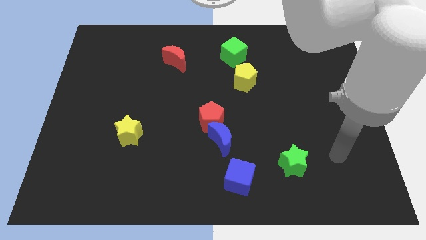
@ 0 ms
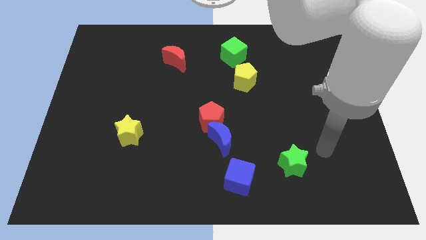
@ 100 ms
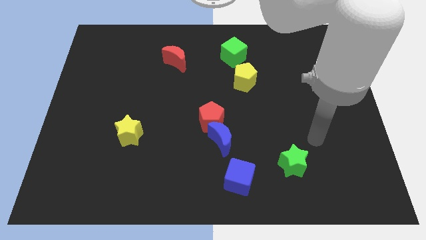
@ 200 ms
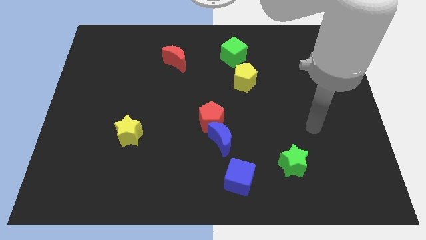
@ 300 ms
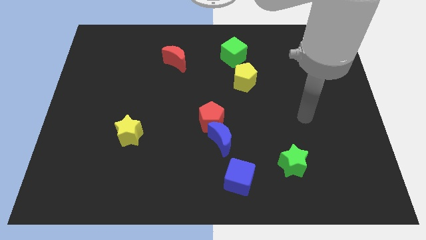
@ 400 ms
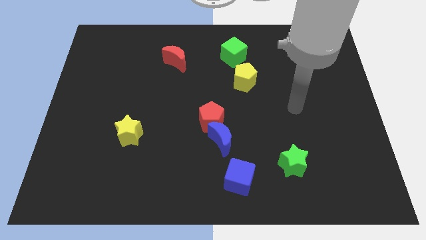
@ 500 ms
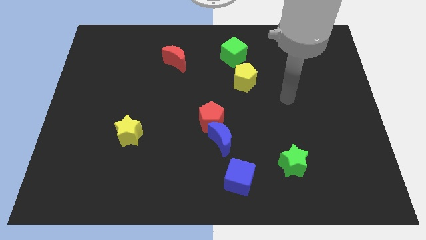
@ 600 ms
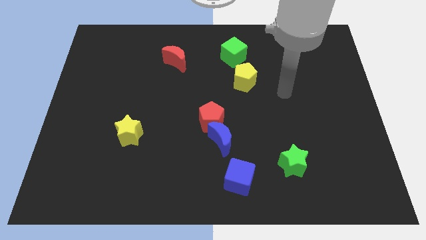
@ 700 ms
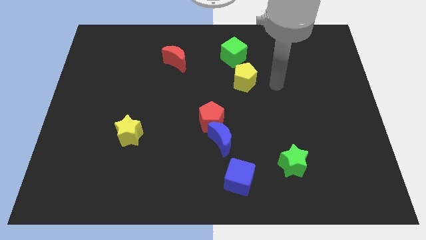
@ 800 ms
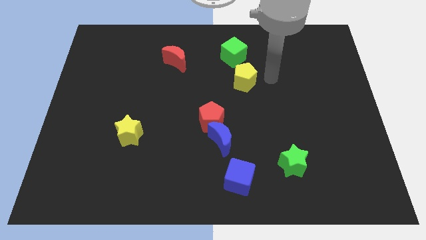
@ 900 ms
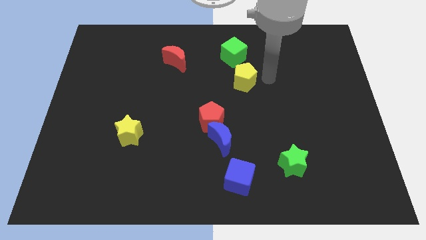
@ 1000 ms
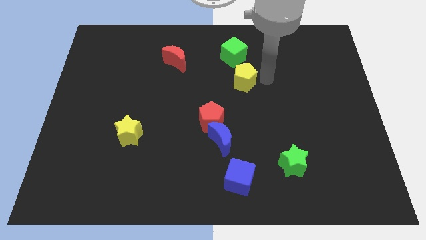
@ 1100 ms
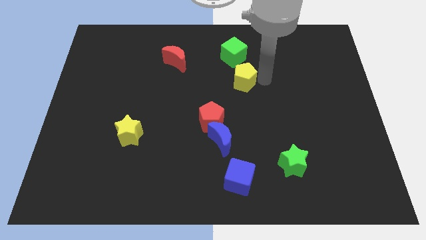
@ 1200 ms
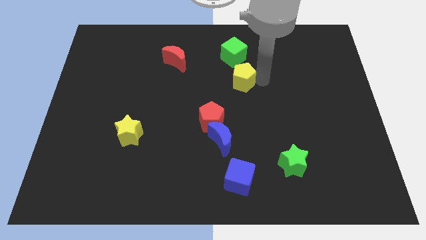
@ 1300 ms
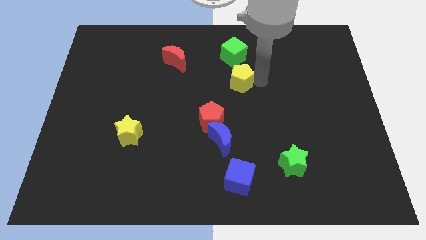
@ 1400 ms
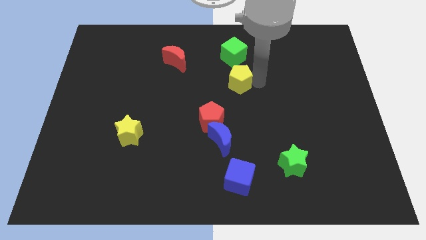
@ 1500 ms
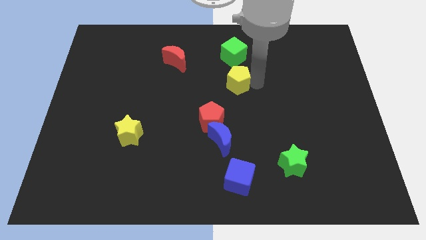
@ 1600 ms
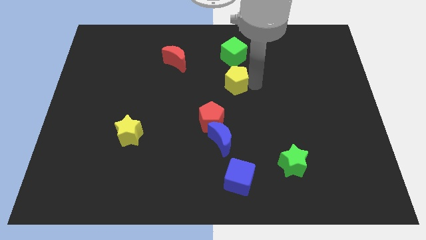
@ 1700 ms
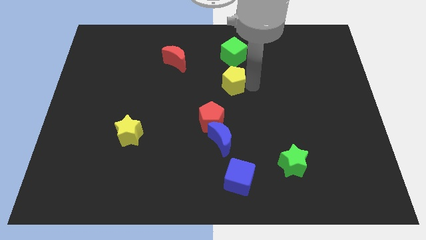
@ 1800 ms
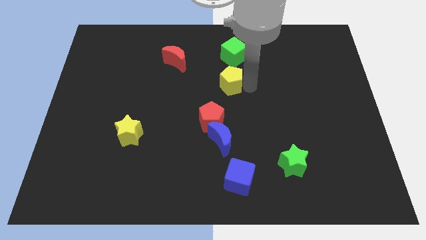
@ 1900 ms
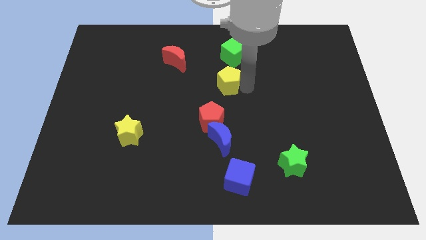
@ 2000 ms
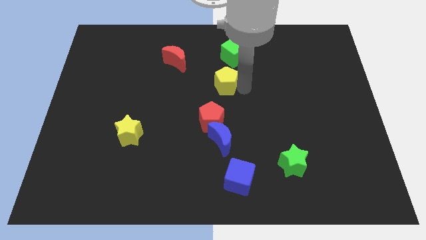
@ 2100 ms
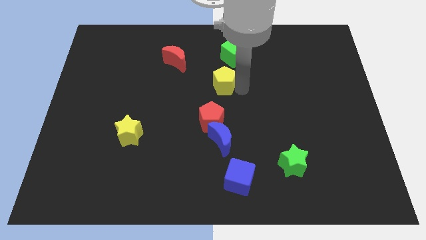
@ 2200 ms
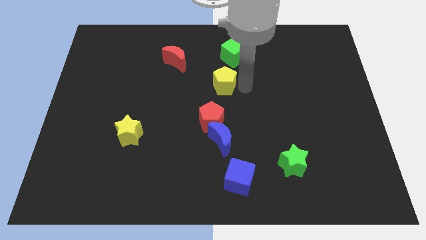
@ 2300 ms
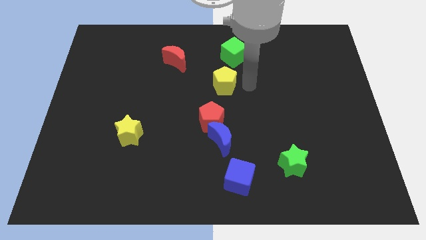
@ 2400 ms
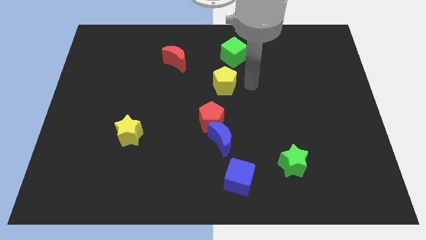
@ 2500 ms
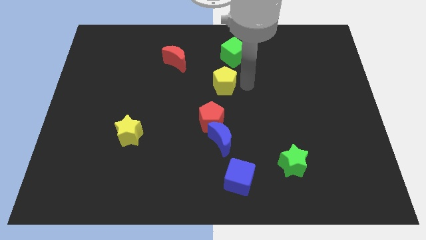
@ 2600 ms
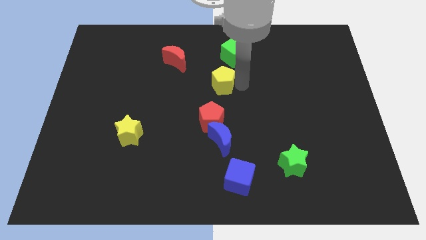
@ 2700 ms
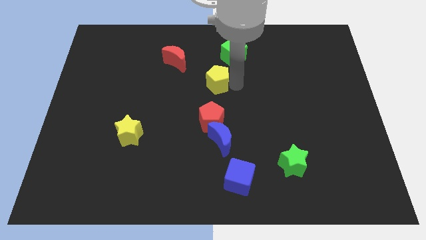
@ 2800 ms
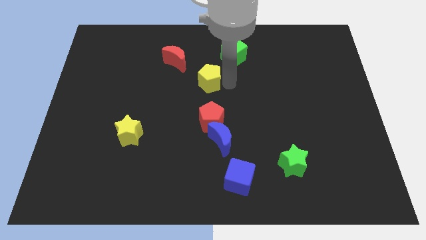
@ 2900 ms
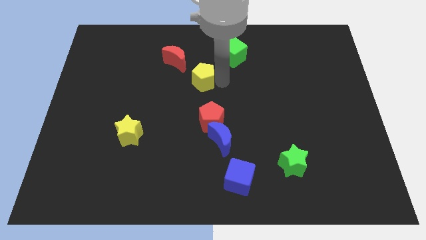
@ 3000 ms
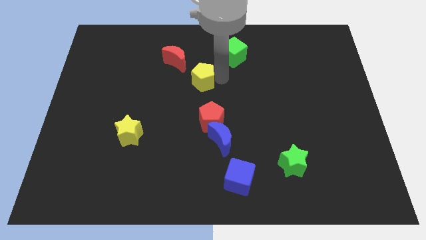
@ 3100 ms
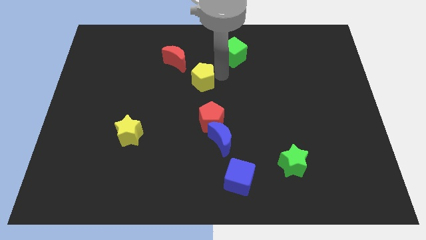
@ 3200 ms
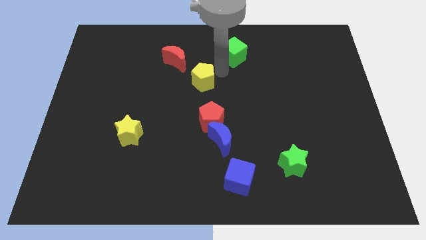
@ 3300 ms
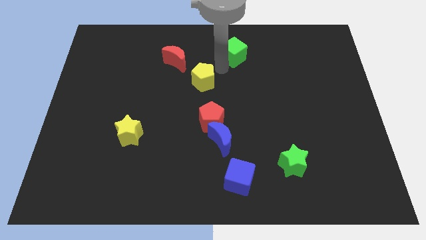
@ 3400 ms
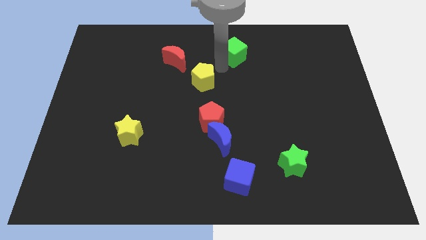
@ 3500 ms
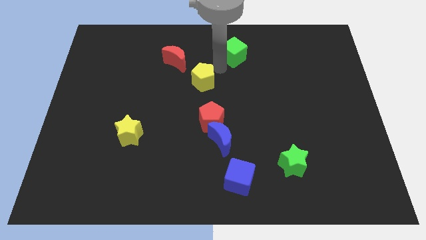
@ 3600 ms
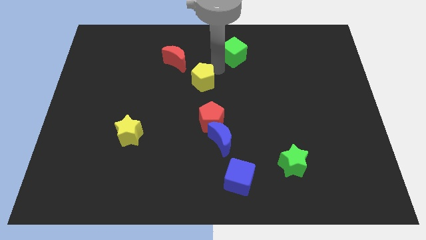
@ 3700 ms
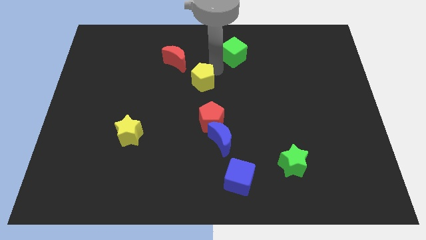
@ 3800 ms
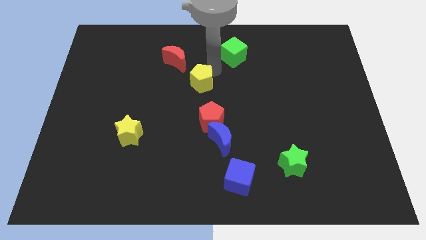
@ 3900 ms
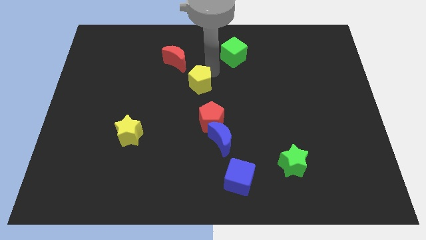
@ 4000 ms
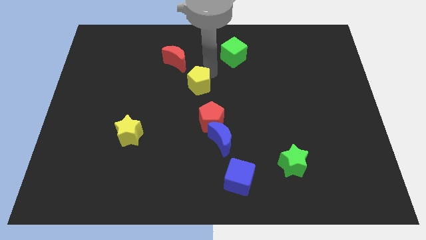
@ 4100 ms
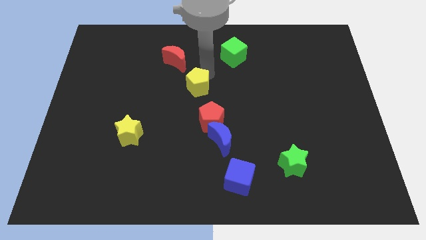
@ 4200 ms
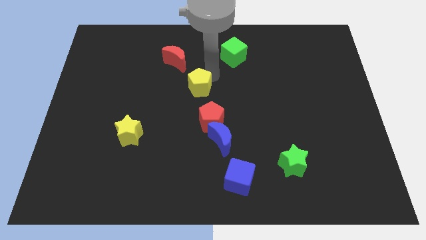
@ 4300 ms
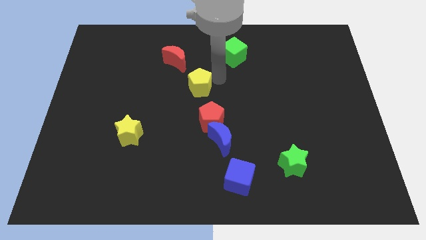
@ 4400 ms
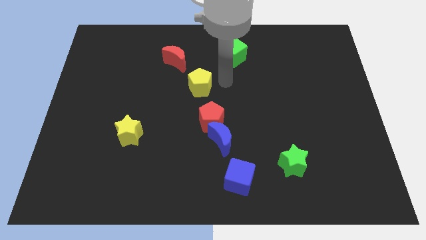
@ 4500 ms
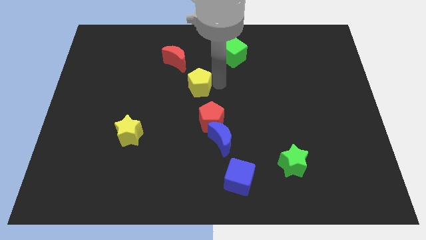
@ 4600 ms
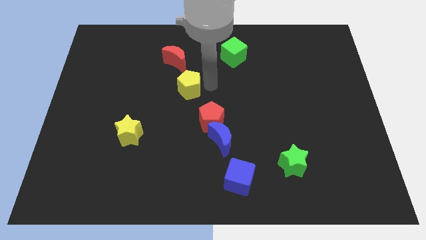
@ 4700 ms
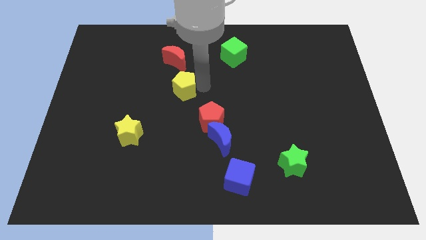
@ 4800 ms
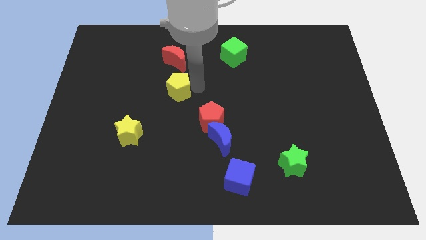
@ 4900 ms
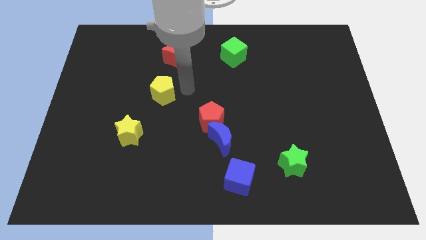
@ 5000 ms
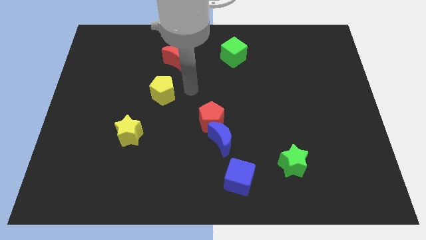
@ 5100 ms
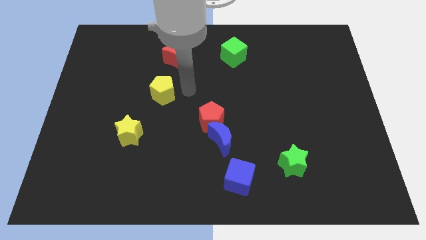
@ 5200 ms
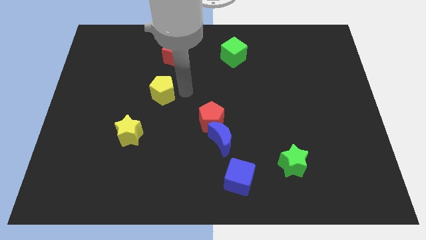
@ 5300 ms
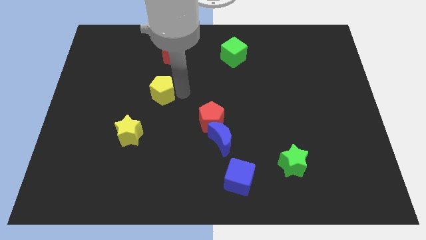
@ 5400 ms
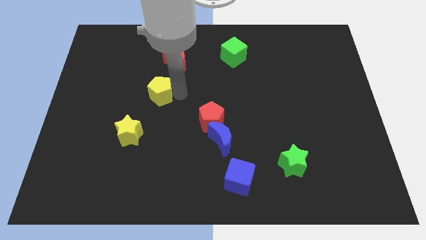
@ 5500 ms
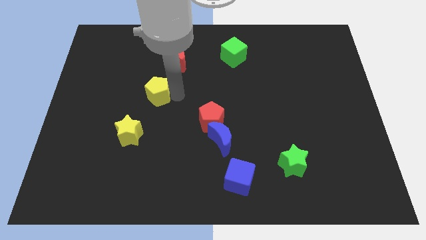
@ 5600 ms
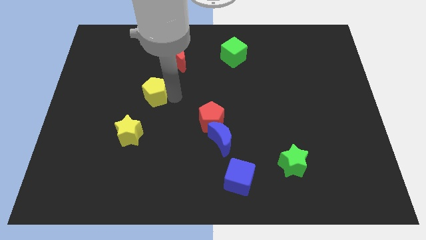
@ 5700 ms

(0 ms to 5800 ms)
put the yellow pentagon above the yellow star

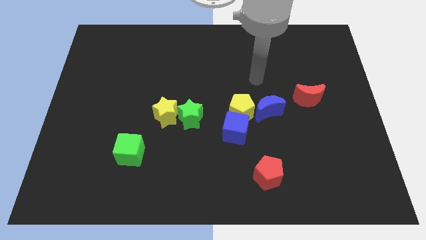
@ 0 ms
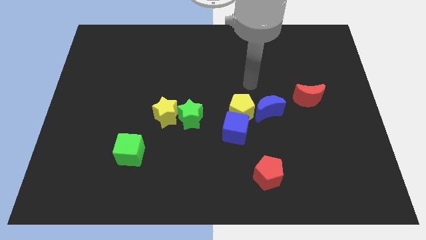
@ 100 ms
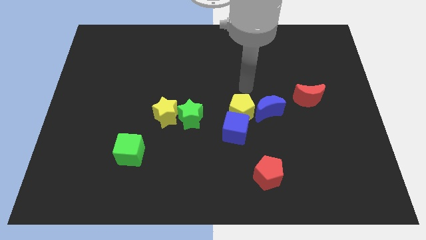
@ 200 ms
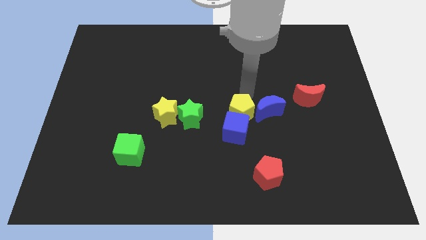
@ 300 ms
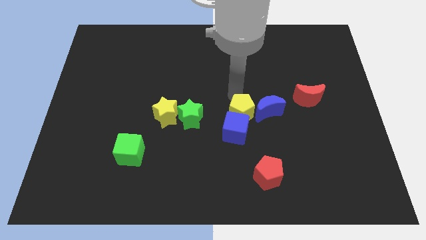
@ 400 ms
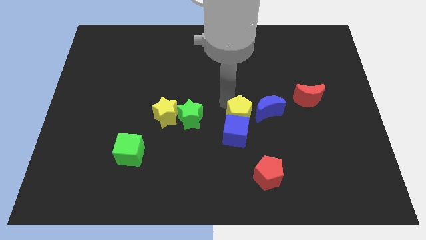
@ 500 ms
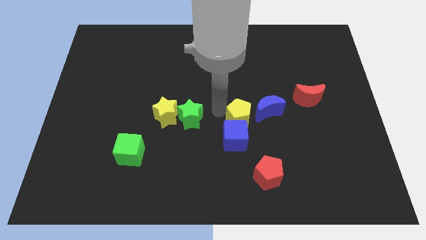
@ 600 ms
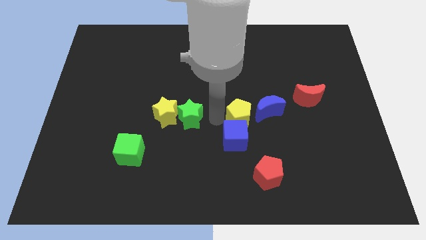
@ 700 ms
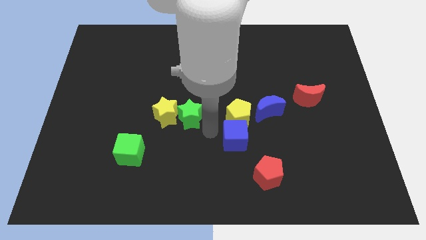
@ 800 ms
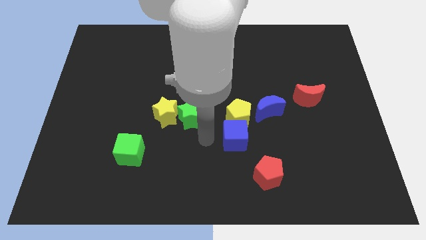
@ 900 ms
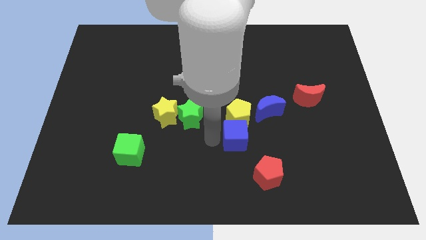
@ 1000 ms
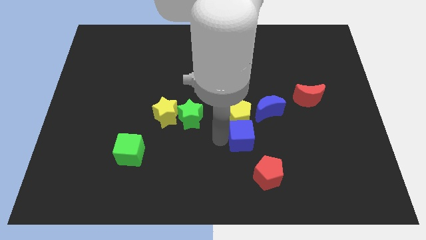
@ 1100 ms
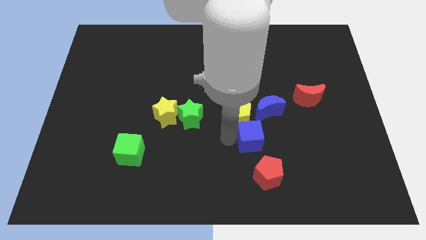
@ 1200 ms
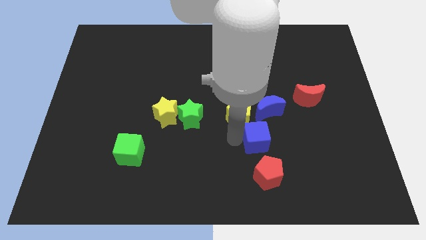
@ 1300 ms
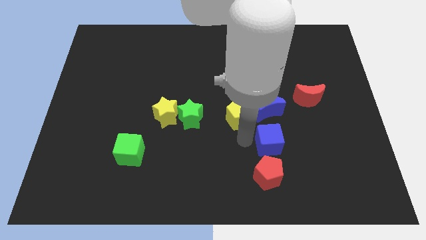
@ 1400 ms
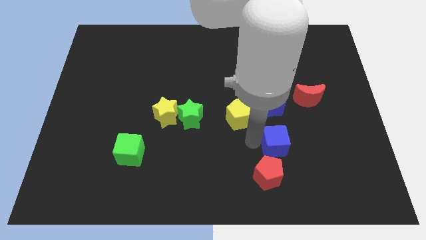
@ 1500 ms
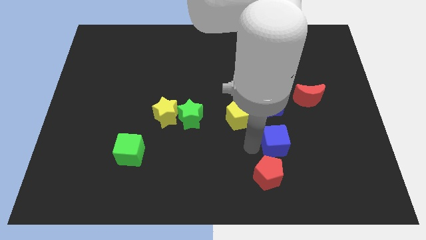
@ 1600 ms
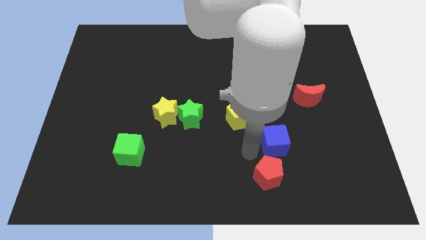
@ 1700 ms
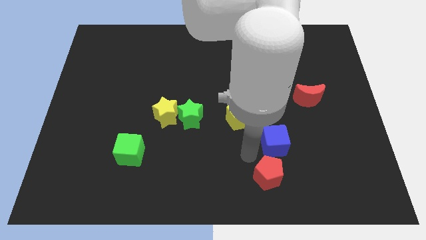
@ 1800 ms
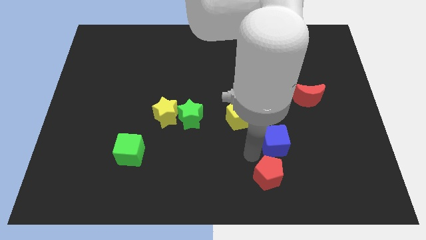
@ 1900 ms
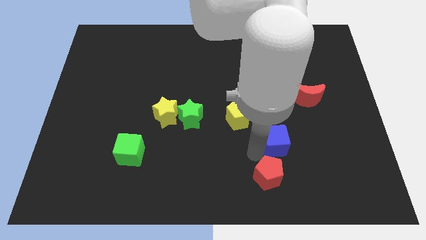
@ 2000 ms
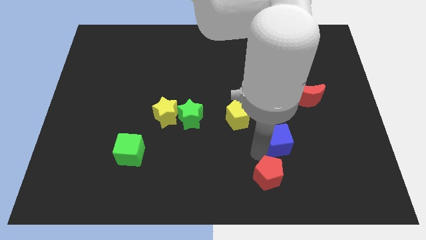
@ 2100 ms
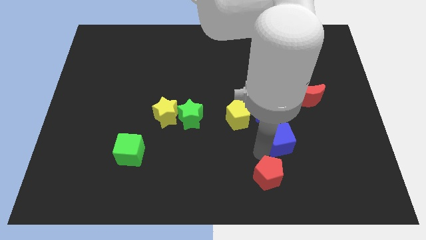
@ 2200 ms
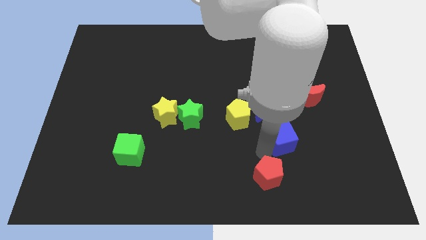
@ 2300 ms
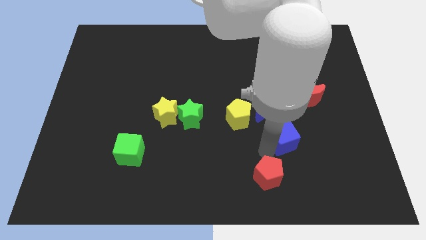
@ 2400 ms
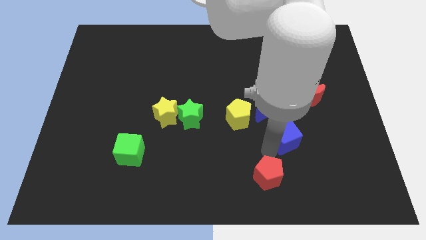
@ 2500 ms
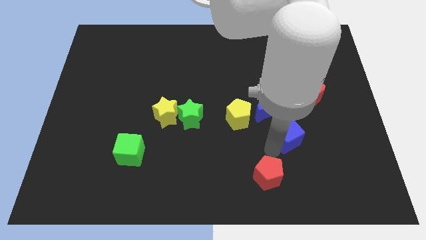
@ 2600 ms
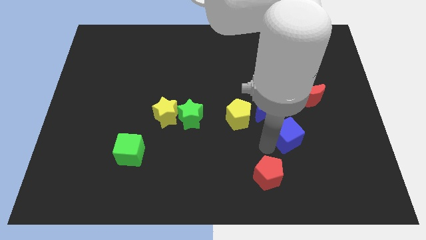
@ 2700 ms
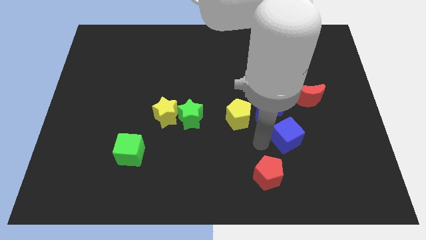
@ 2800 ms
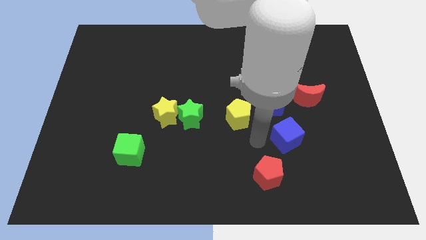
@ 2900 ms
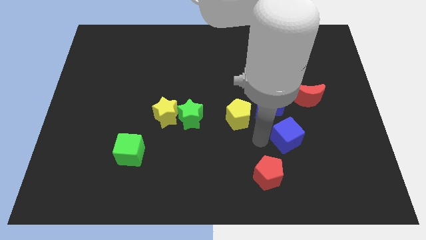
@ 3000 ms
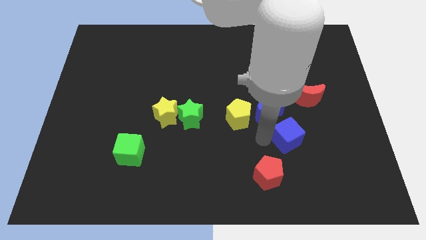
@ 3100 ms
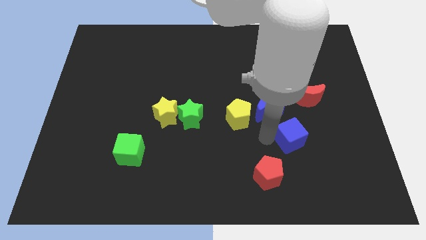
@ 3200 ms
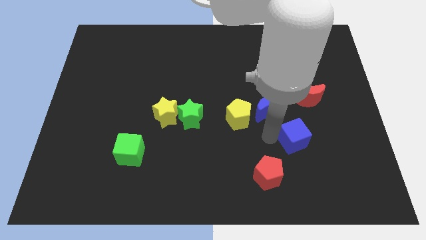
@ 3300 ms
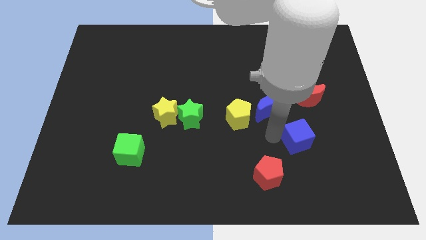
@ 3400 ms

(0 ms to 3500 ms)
move the blue cube to the bottom side of the red moon
